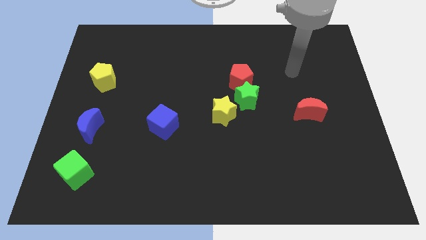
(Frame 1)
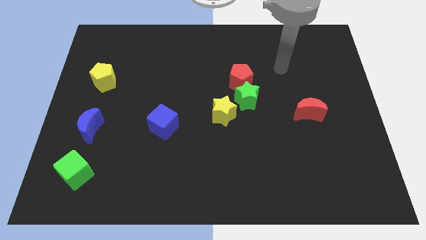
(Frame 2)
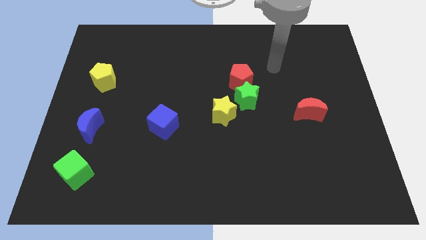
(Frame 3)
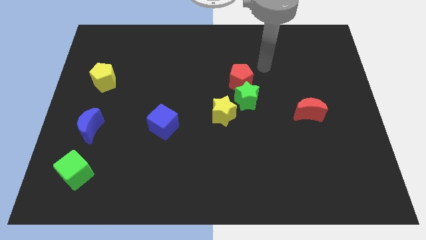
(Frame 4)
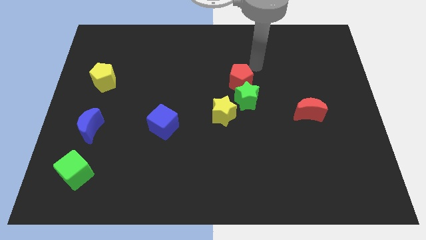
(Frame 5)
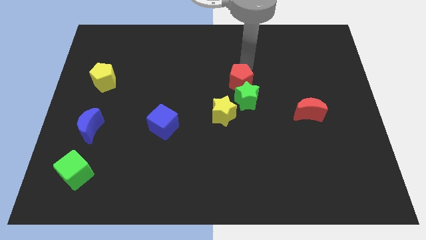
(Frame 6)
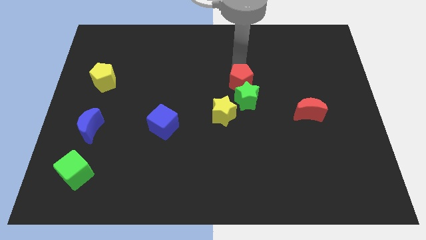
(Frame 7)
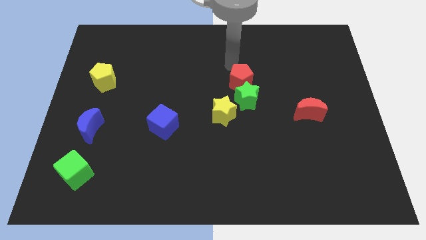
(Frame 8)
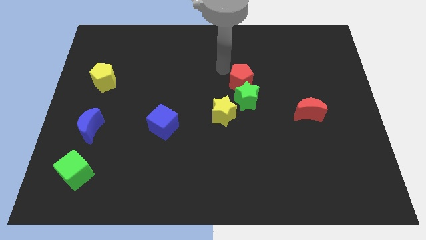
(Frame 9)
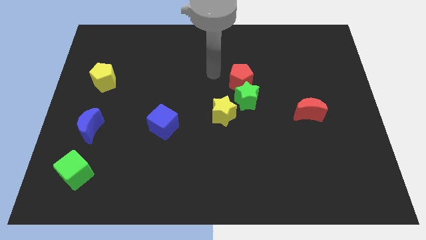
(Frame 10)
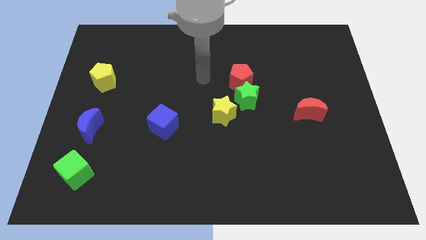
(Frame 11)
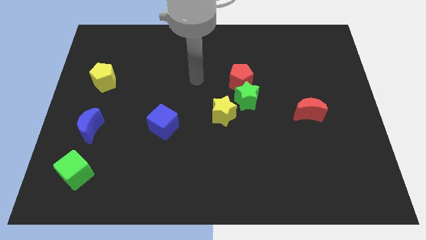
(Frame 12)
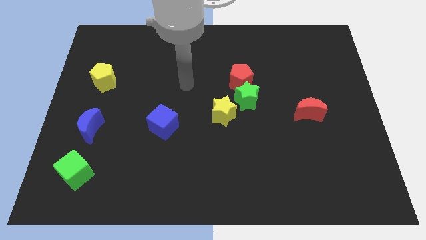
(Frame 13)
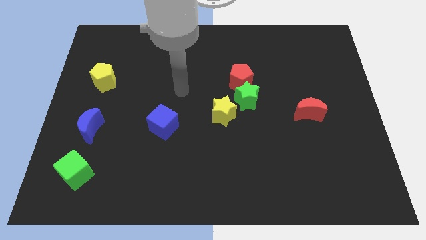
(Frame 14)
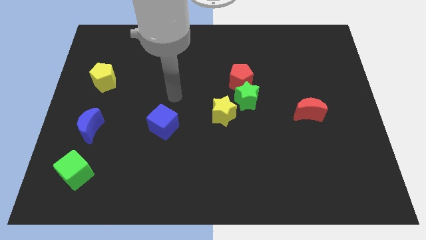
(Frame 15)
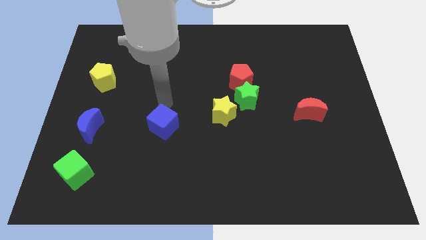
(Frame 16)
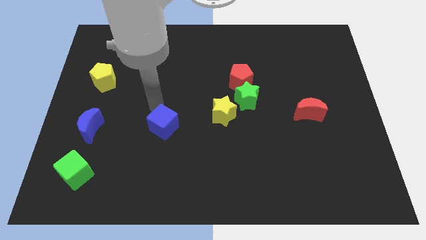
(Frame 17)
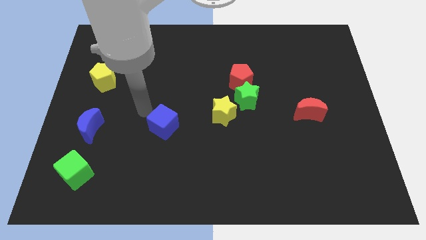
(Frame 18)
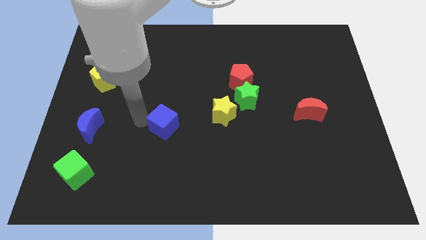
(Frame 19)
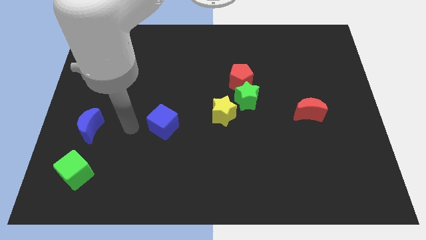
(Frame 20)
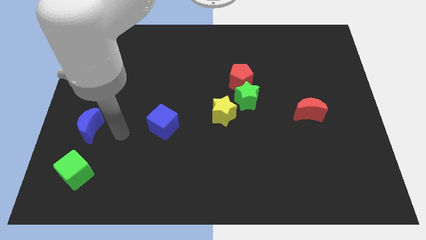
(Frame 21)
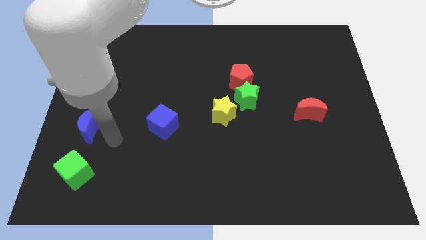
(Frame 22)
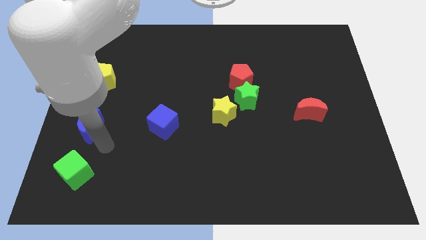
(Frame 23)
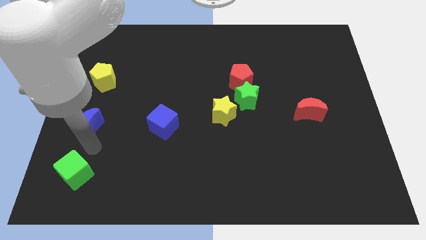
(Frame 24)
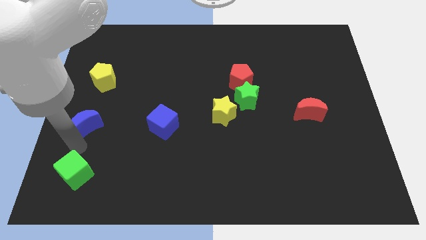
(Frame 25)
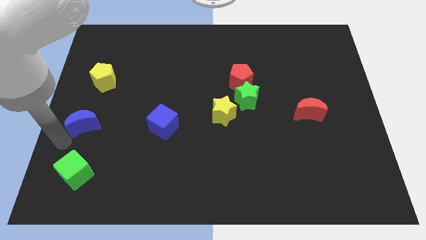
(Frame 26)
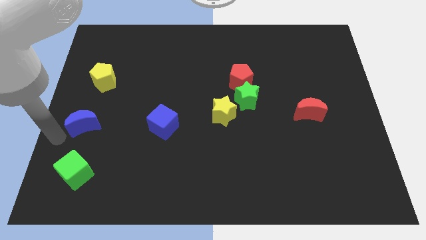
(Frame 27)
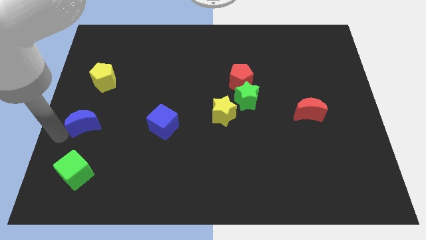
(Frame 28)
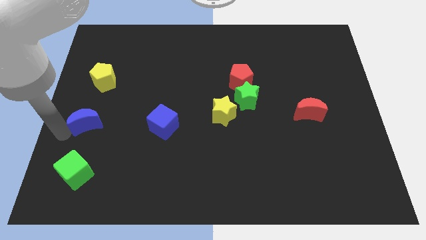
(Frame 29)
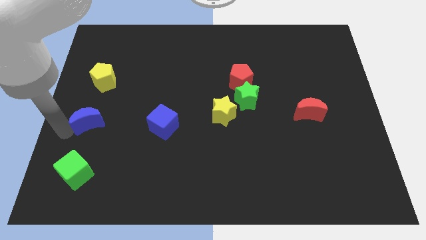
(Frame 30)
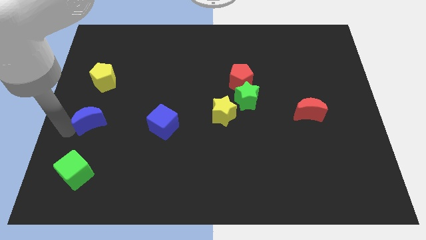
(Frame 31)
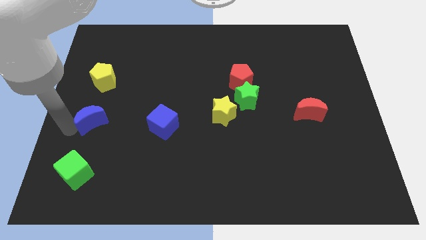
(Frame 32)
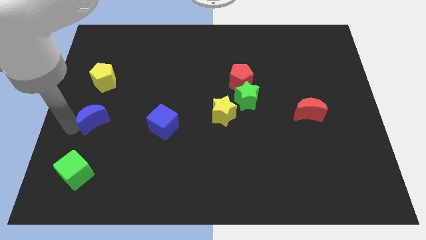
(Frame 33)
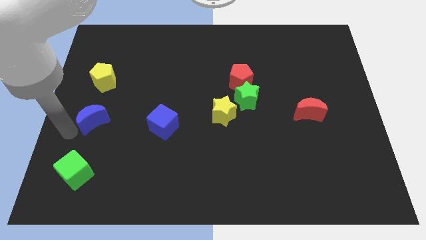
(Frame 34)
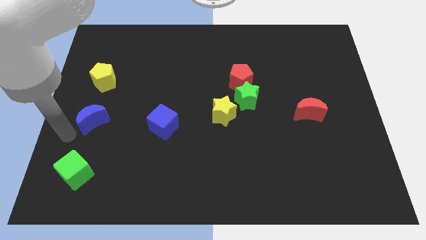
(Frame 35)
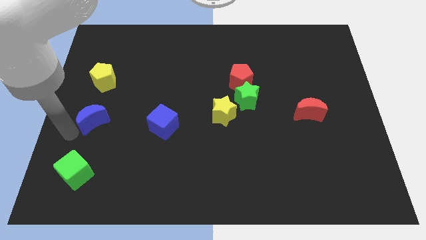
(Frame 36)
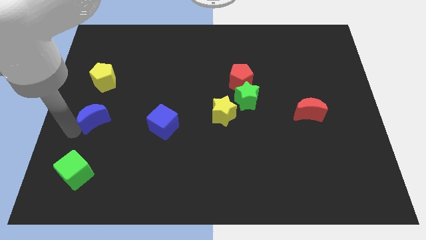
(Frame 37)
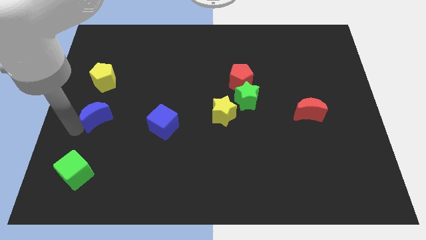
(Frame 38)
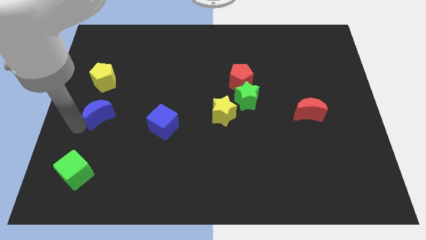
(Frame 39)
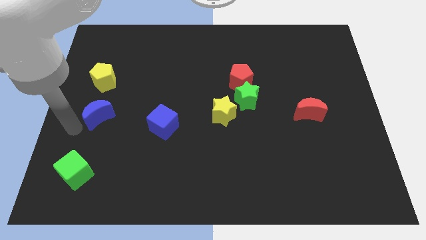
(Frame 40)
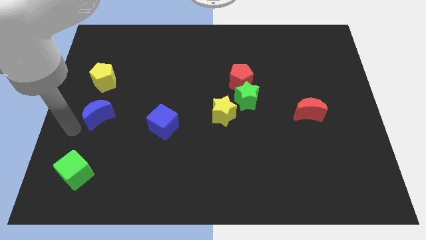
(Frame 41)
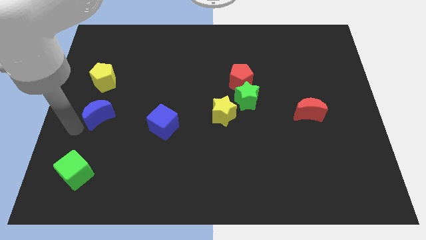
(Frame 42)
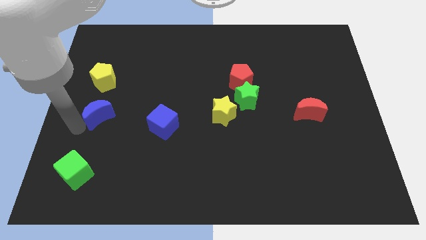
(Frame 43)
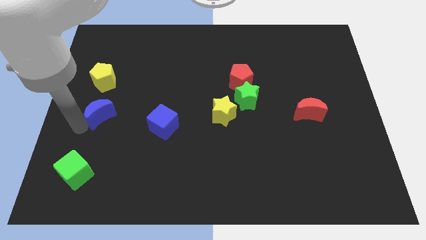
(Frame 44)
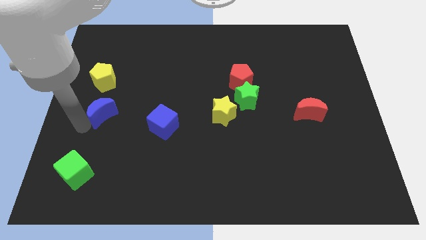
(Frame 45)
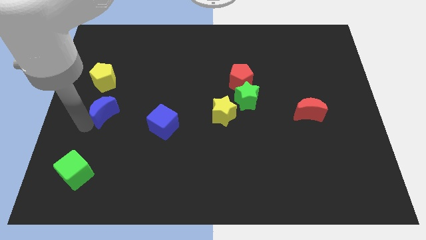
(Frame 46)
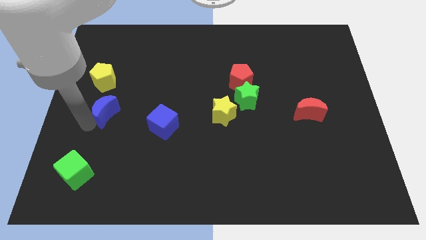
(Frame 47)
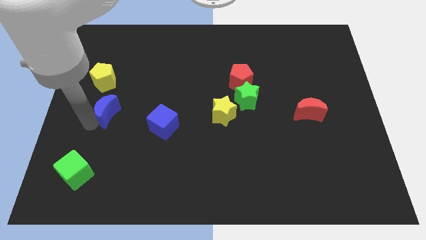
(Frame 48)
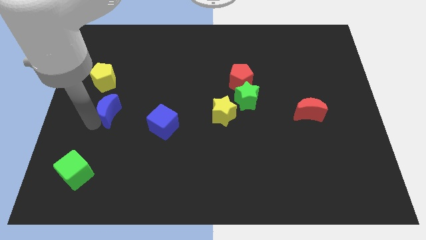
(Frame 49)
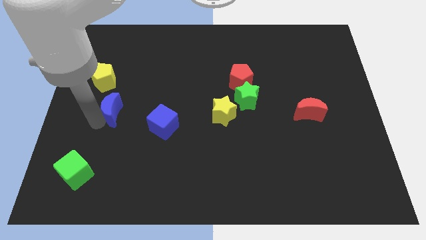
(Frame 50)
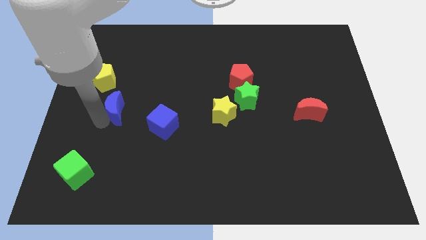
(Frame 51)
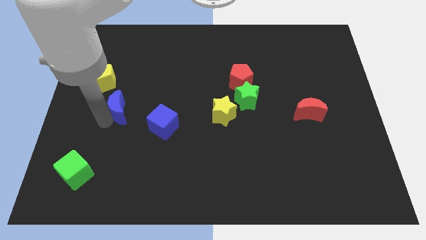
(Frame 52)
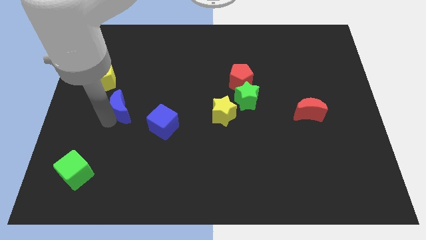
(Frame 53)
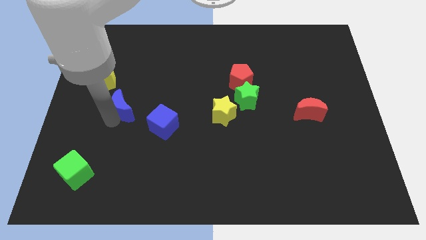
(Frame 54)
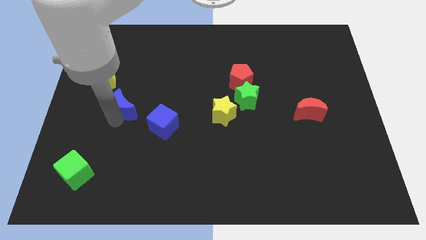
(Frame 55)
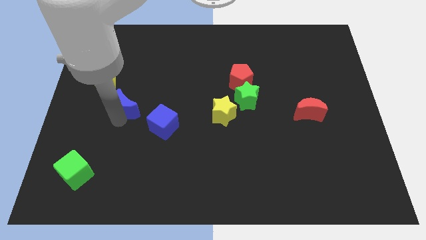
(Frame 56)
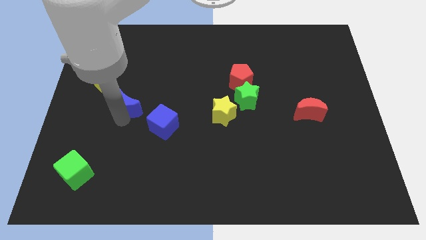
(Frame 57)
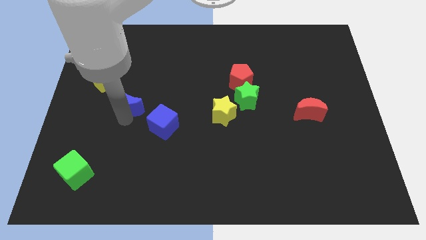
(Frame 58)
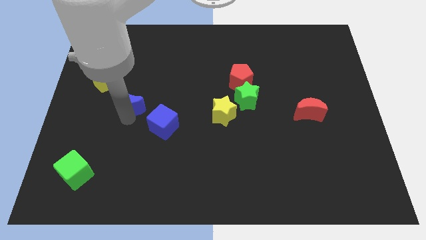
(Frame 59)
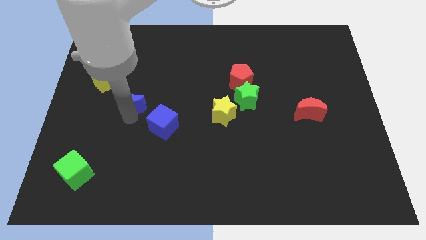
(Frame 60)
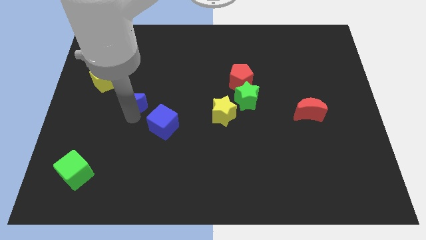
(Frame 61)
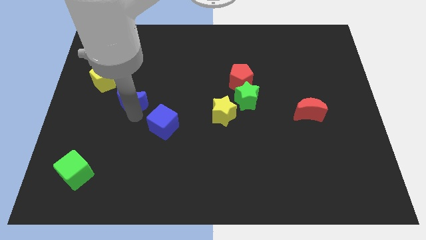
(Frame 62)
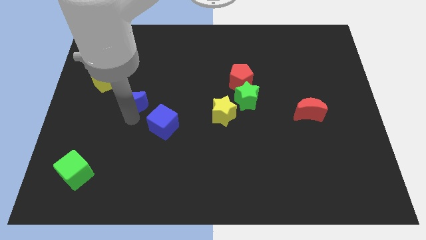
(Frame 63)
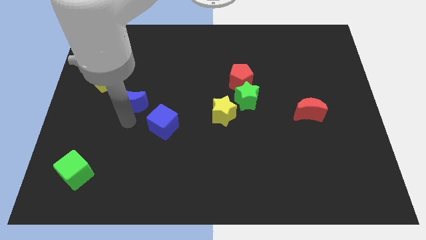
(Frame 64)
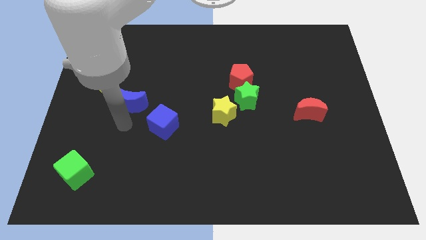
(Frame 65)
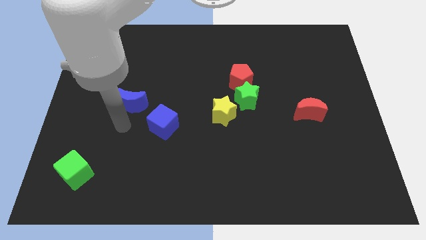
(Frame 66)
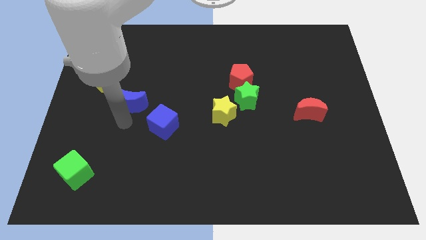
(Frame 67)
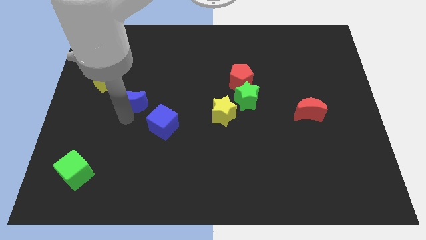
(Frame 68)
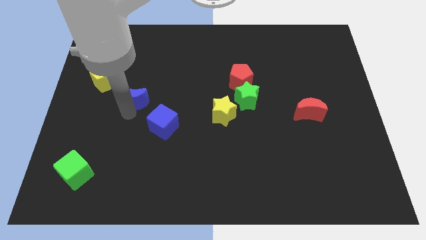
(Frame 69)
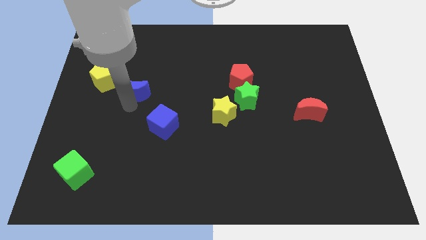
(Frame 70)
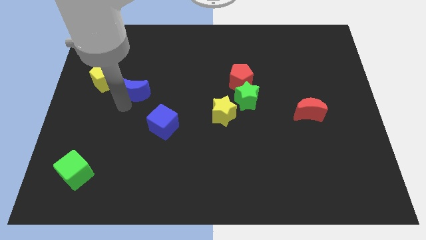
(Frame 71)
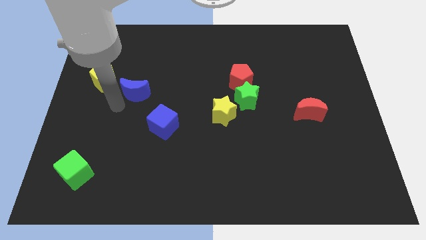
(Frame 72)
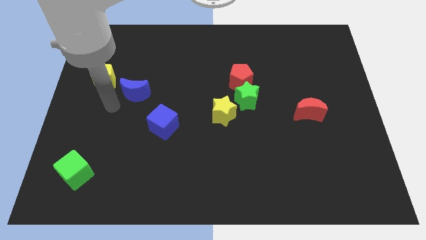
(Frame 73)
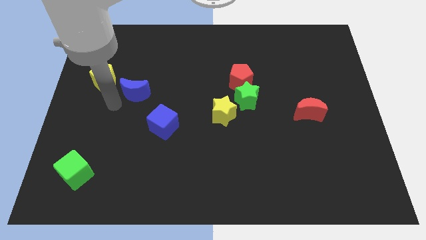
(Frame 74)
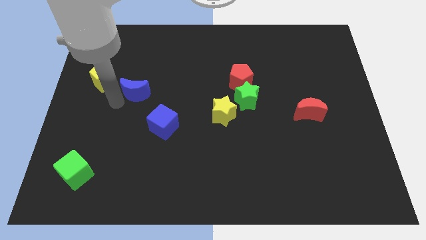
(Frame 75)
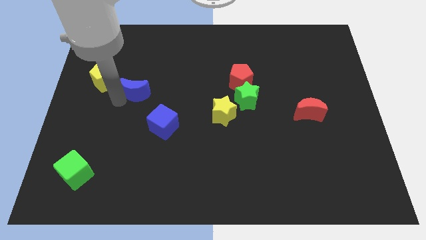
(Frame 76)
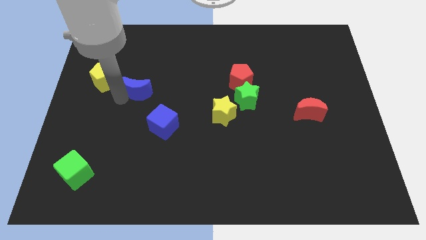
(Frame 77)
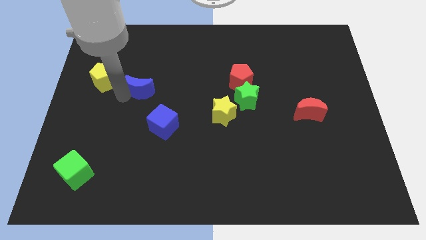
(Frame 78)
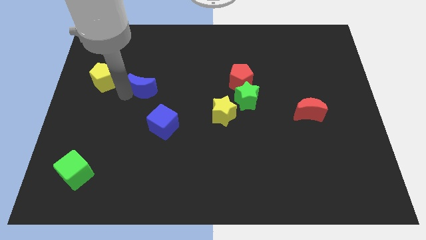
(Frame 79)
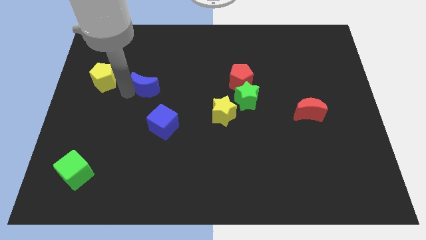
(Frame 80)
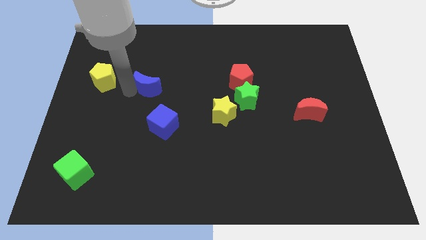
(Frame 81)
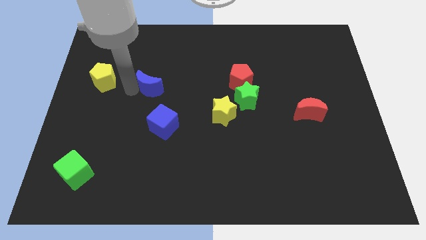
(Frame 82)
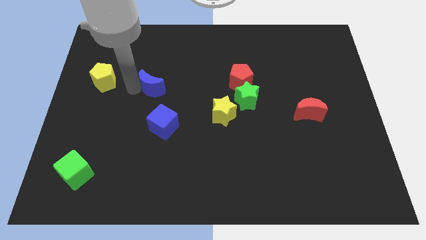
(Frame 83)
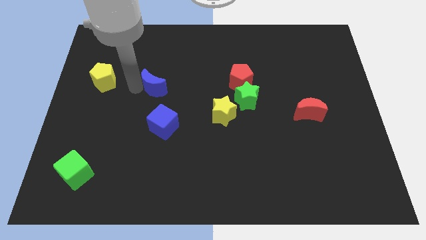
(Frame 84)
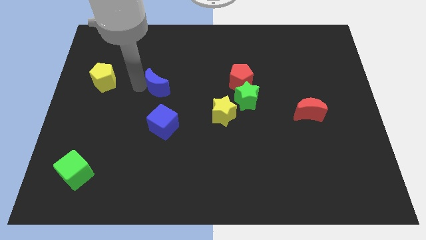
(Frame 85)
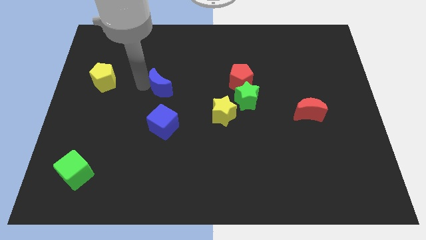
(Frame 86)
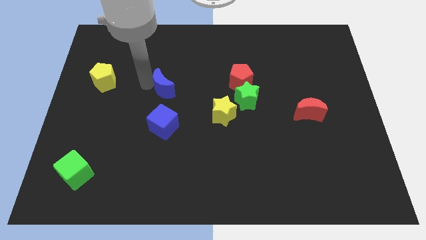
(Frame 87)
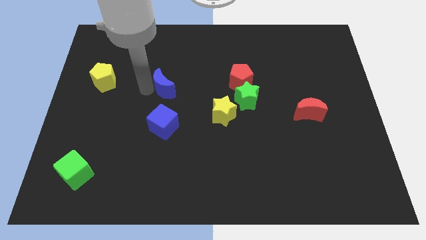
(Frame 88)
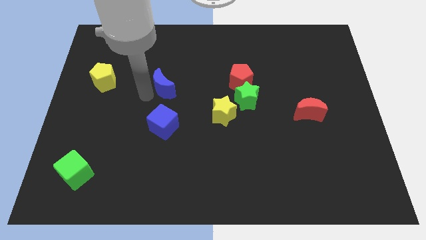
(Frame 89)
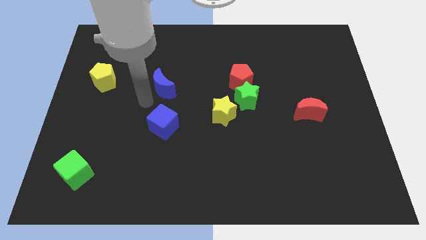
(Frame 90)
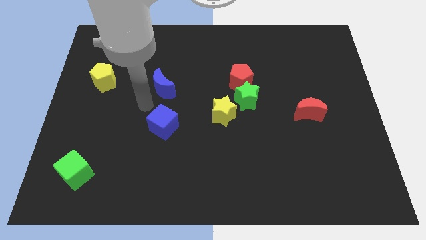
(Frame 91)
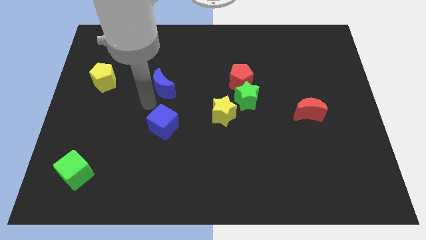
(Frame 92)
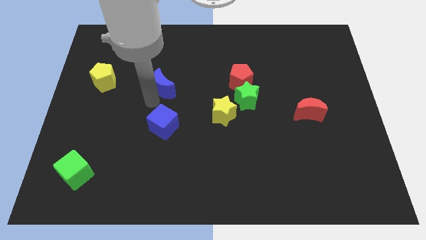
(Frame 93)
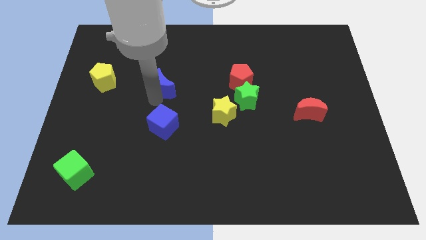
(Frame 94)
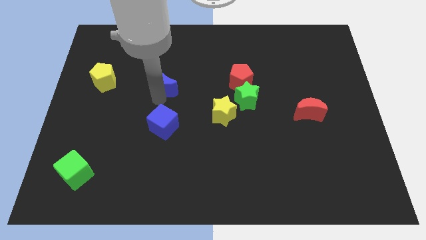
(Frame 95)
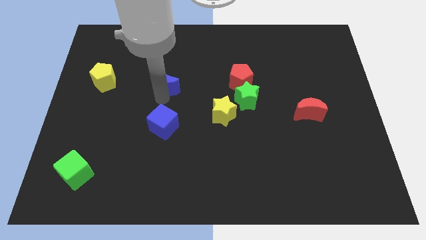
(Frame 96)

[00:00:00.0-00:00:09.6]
push the blue moon up and to the right diagonally
